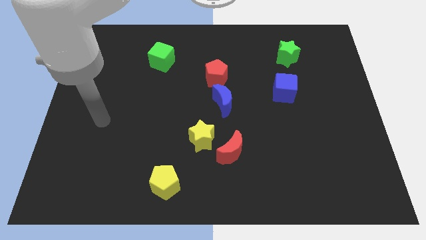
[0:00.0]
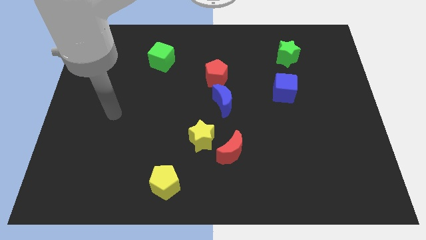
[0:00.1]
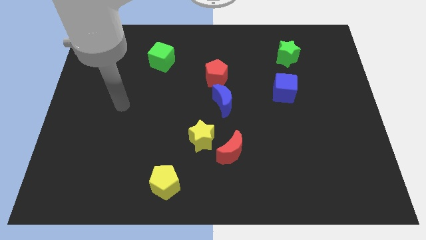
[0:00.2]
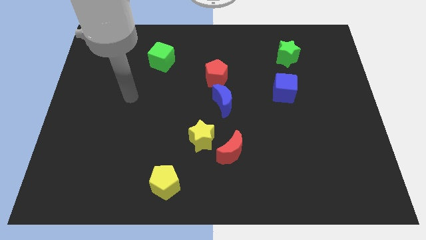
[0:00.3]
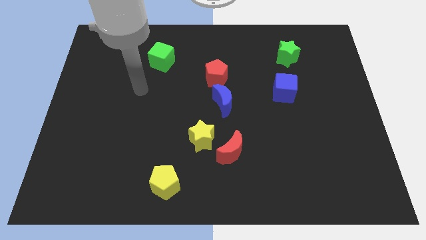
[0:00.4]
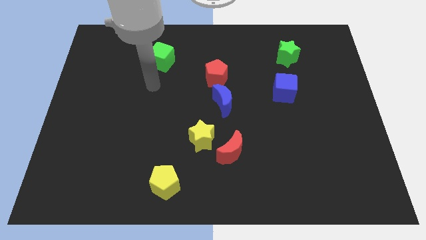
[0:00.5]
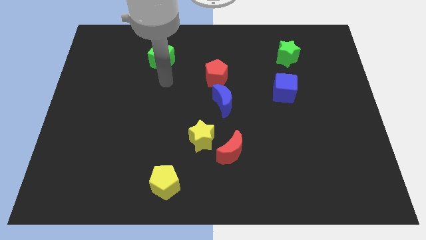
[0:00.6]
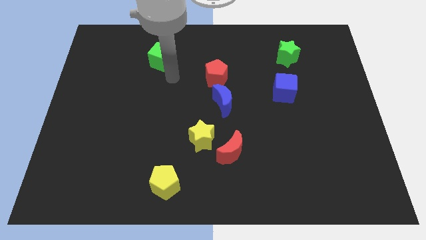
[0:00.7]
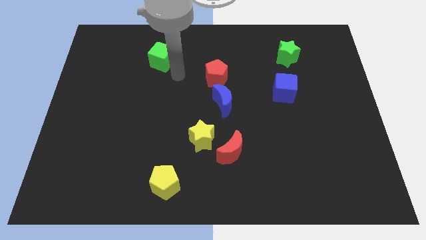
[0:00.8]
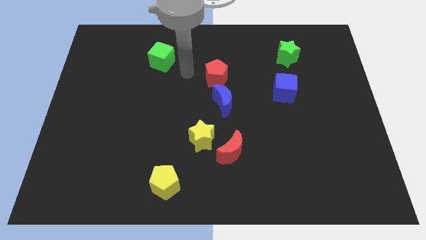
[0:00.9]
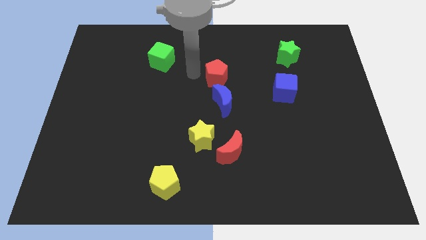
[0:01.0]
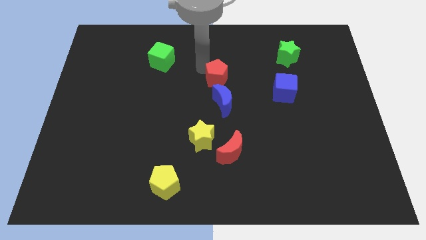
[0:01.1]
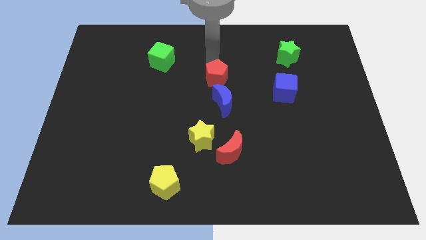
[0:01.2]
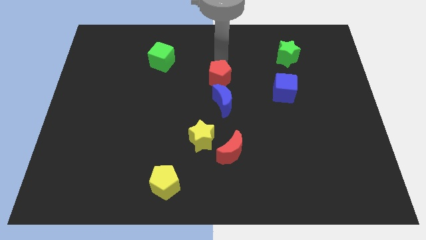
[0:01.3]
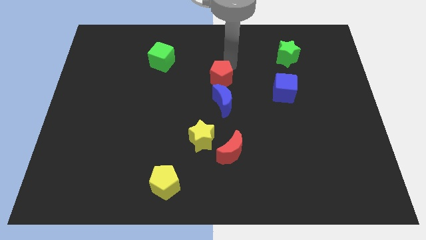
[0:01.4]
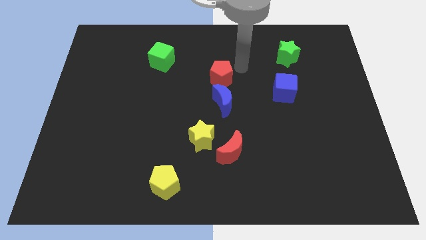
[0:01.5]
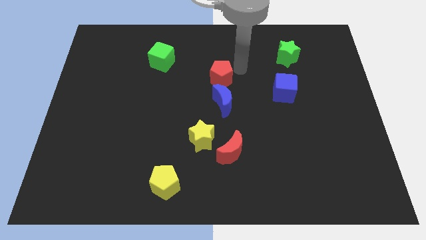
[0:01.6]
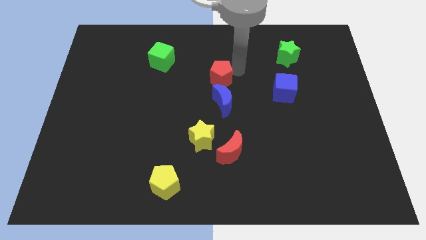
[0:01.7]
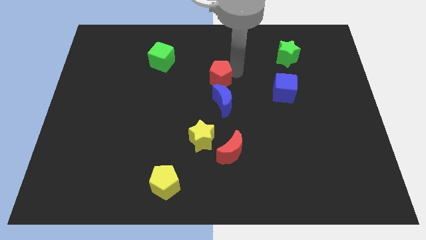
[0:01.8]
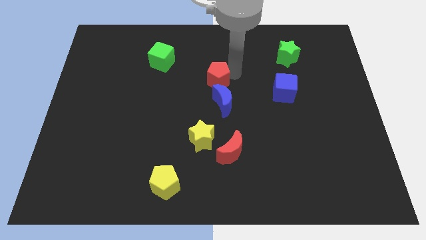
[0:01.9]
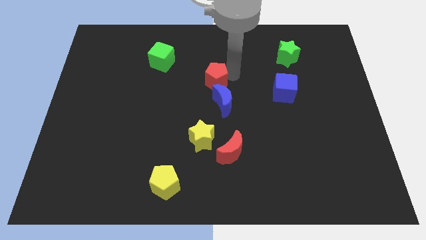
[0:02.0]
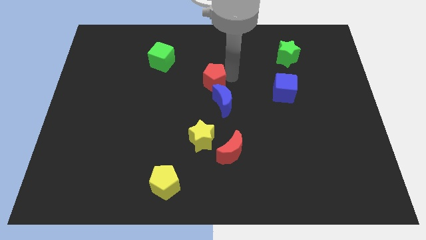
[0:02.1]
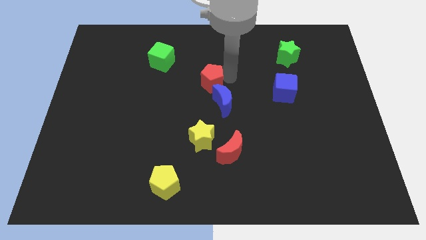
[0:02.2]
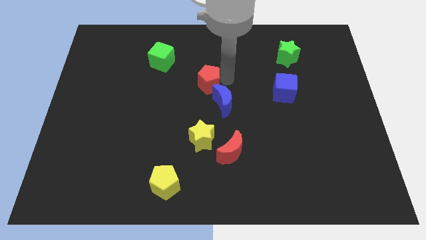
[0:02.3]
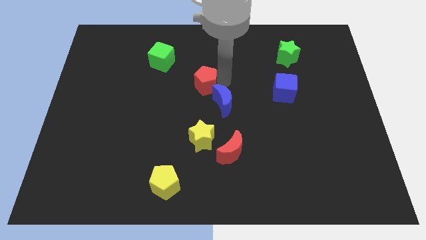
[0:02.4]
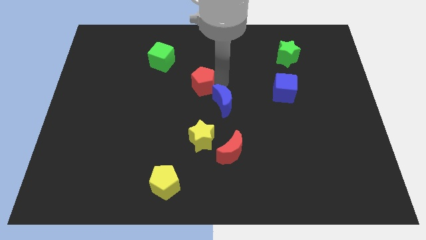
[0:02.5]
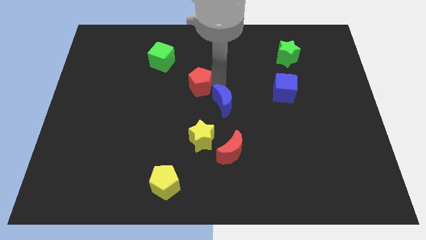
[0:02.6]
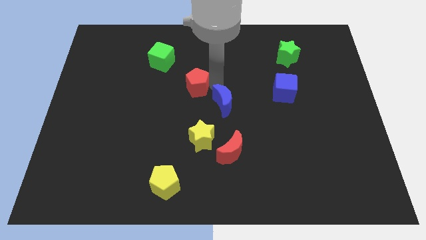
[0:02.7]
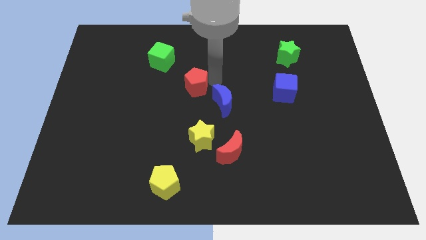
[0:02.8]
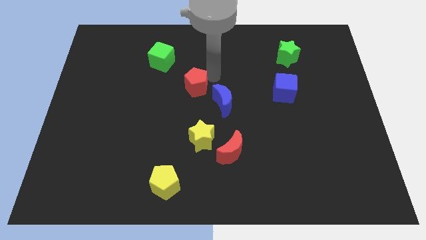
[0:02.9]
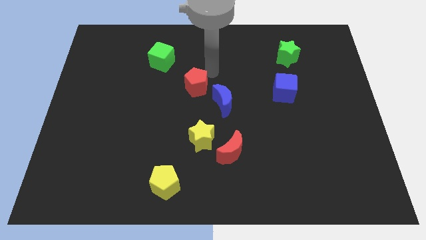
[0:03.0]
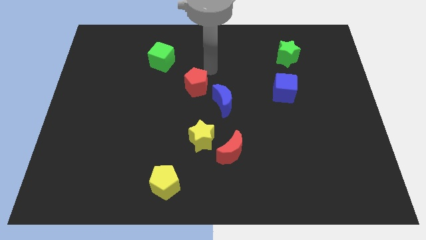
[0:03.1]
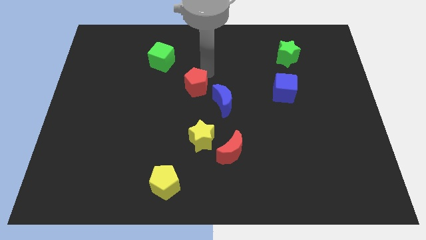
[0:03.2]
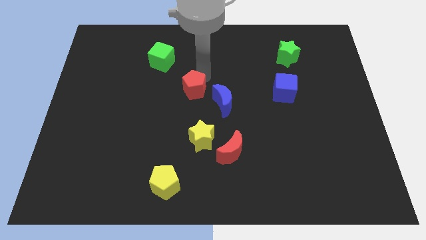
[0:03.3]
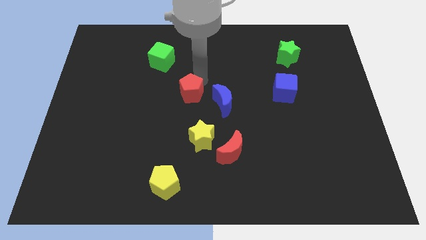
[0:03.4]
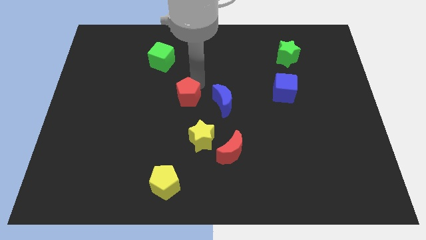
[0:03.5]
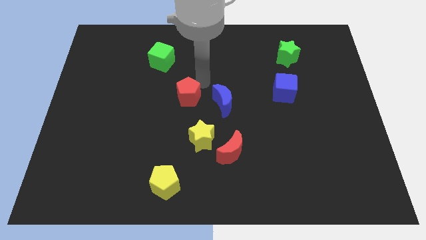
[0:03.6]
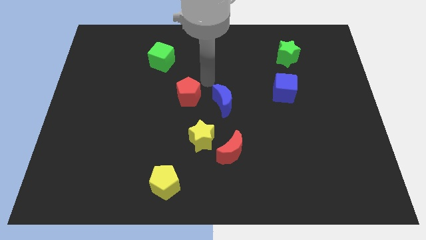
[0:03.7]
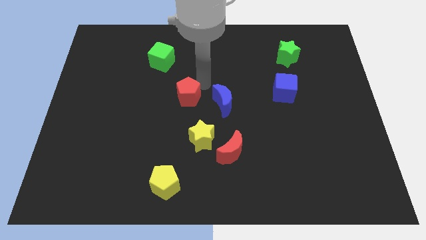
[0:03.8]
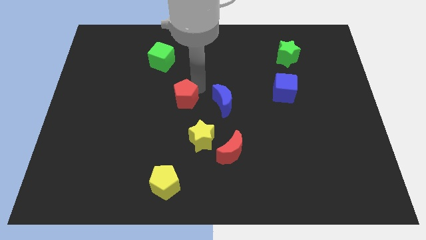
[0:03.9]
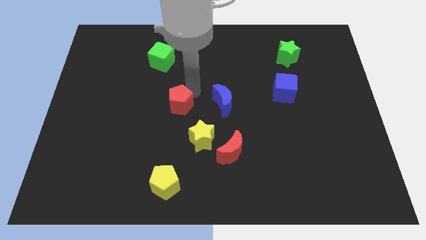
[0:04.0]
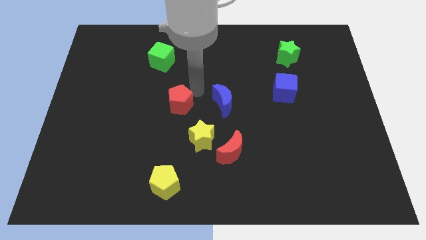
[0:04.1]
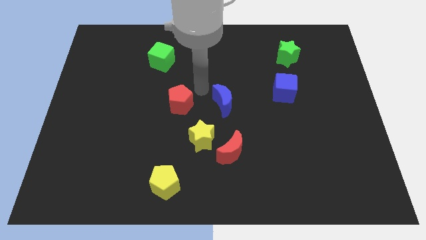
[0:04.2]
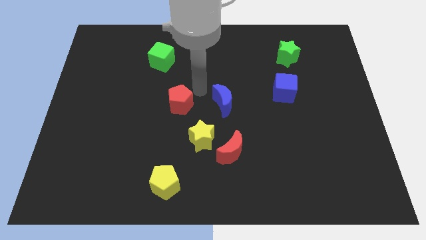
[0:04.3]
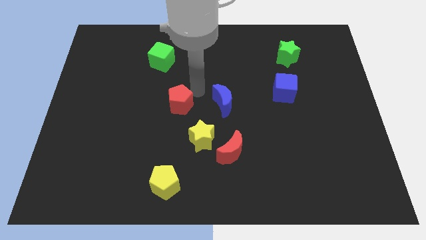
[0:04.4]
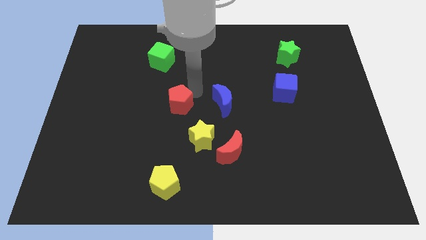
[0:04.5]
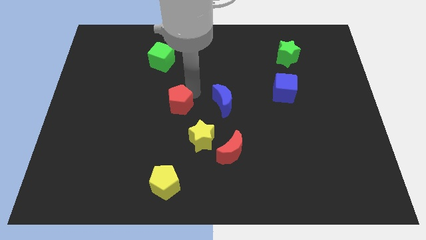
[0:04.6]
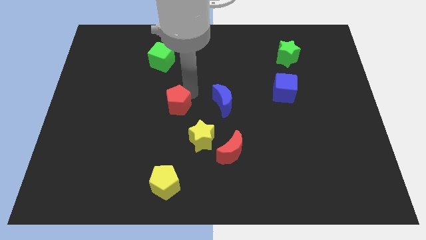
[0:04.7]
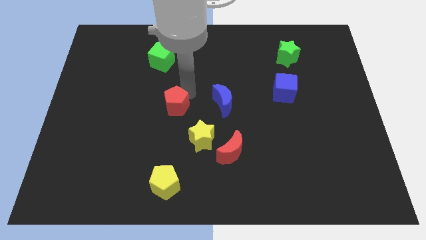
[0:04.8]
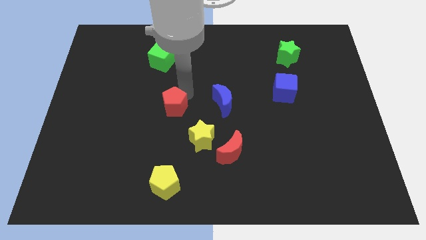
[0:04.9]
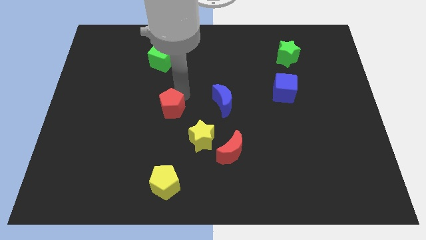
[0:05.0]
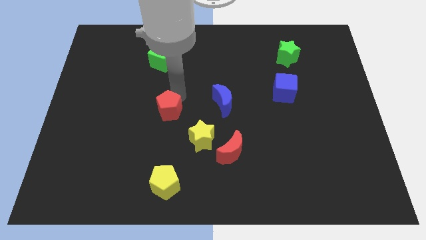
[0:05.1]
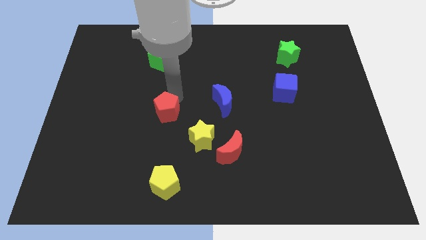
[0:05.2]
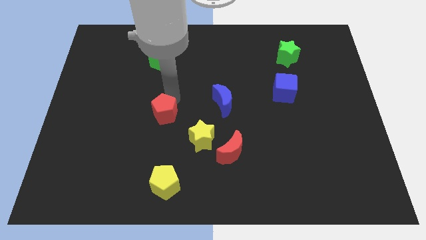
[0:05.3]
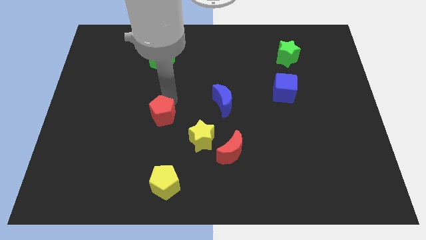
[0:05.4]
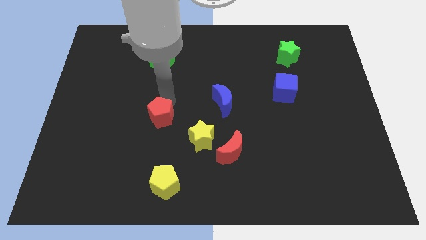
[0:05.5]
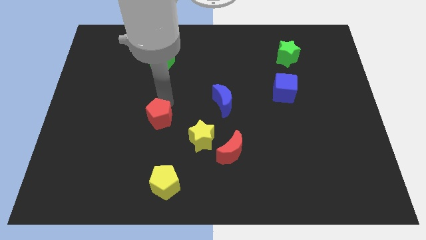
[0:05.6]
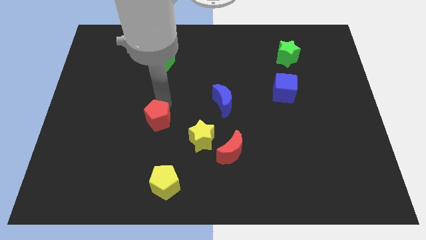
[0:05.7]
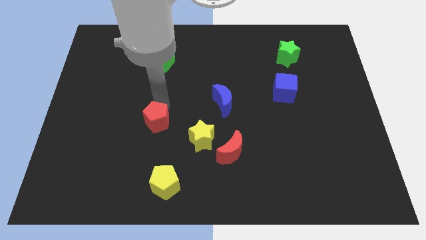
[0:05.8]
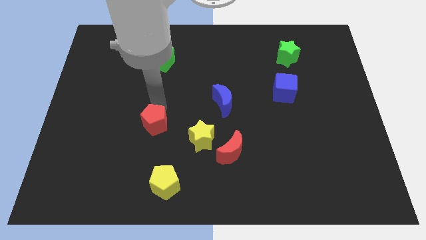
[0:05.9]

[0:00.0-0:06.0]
slide the red pentagon down and left diagonally

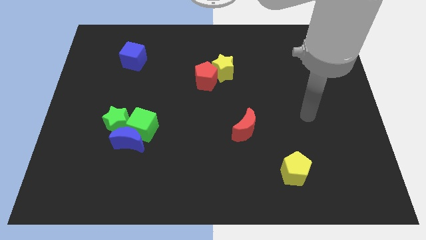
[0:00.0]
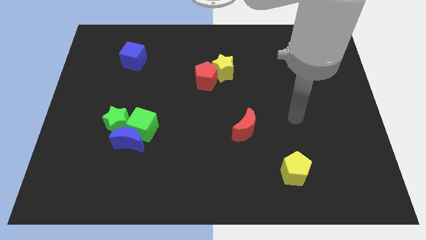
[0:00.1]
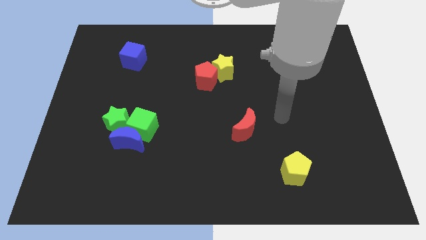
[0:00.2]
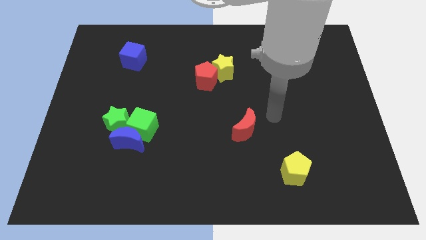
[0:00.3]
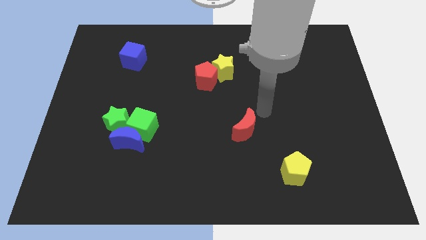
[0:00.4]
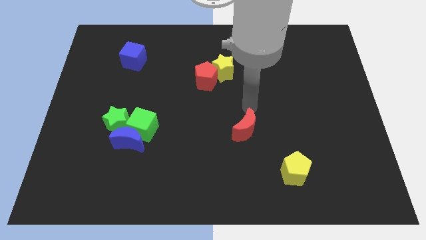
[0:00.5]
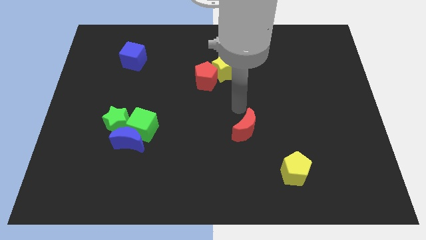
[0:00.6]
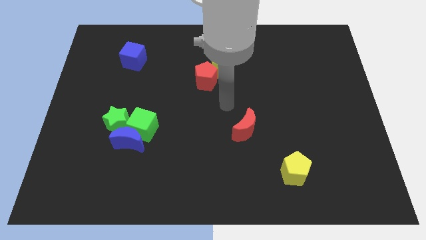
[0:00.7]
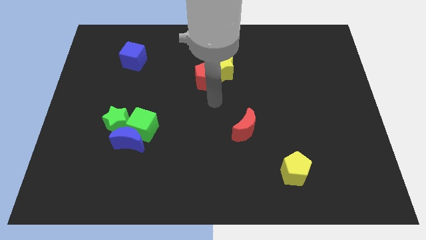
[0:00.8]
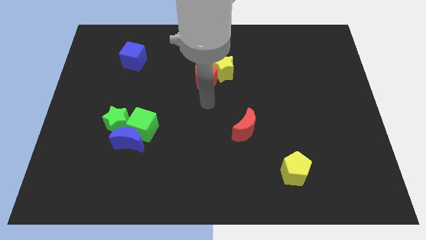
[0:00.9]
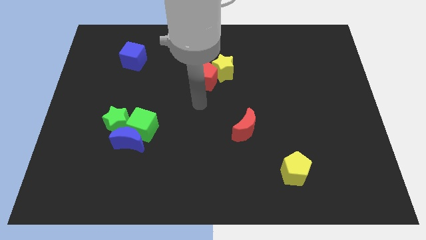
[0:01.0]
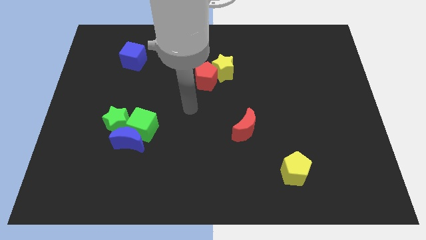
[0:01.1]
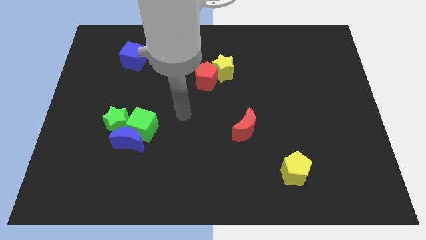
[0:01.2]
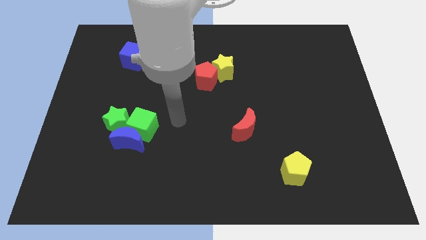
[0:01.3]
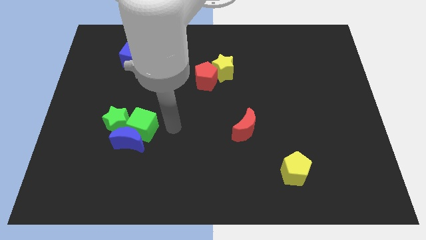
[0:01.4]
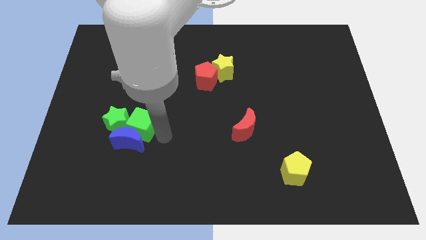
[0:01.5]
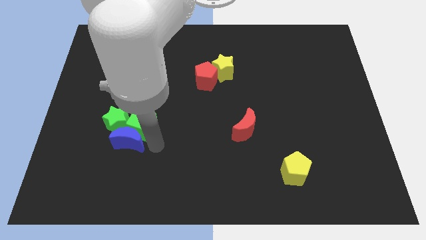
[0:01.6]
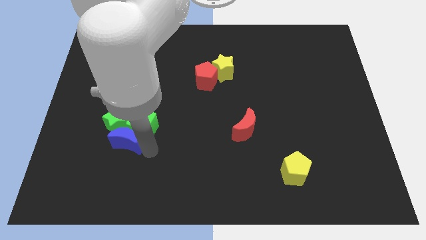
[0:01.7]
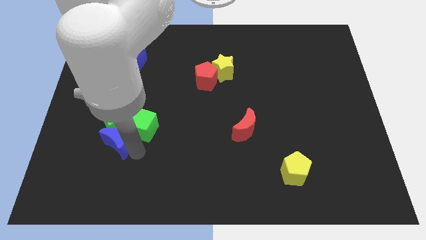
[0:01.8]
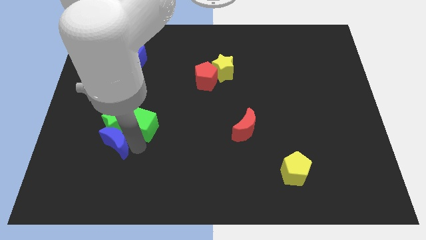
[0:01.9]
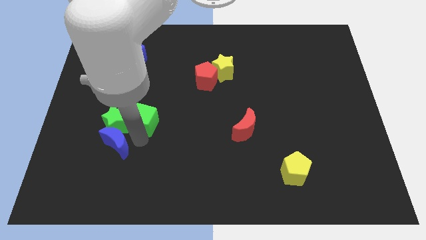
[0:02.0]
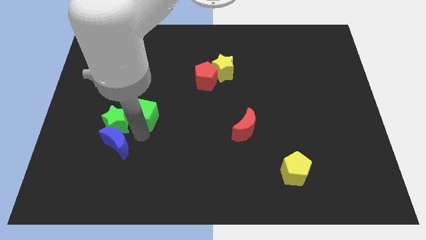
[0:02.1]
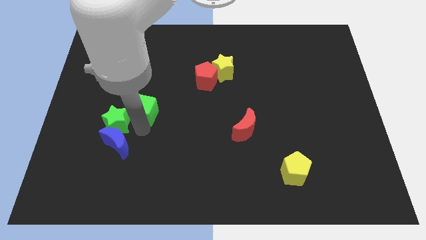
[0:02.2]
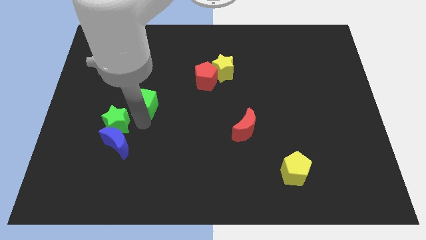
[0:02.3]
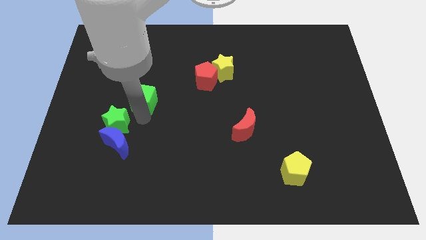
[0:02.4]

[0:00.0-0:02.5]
slightly move the green cube up
